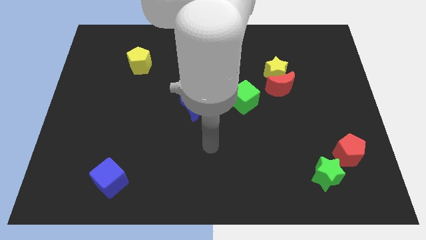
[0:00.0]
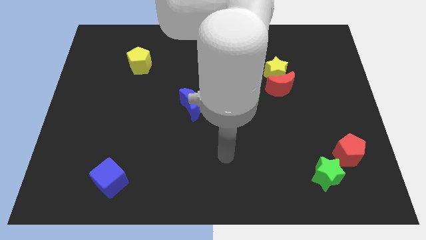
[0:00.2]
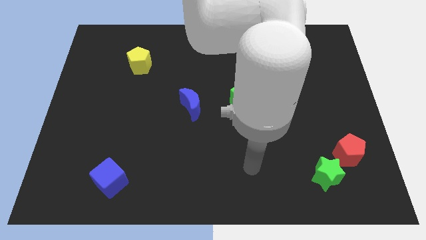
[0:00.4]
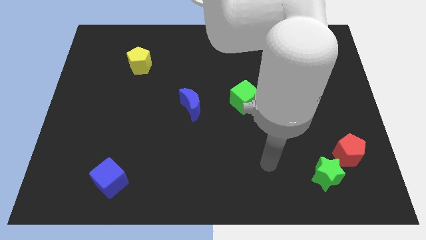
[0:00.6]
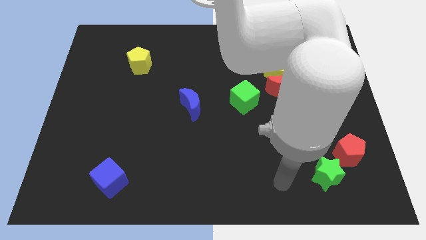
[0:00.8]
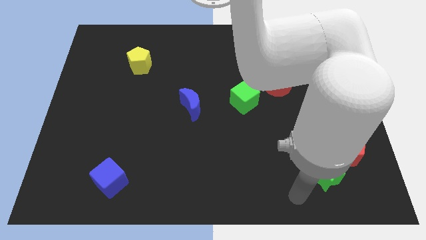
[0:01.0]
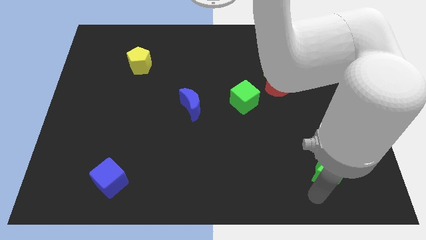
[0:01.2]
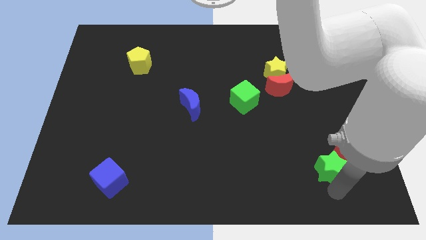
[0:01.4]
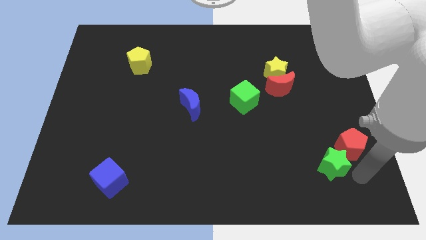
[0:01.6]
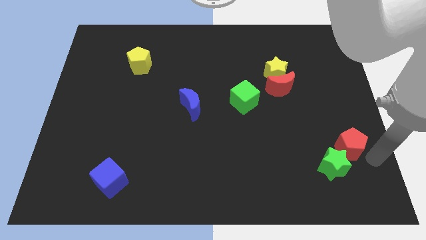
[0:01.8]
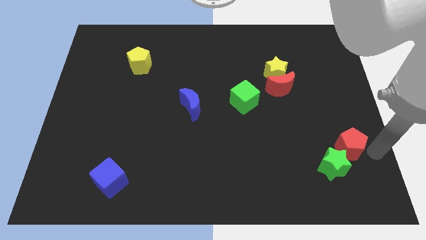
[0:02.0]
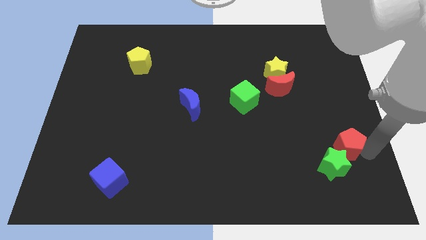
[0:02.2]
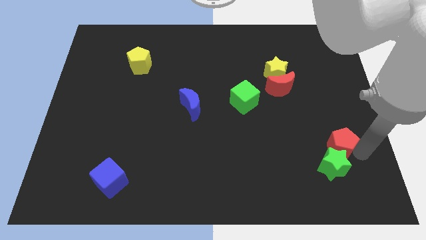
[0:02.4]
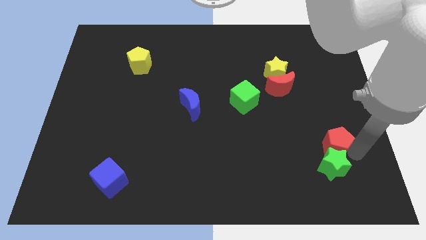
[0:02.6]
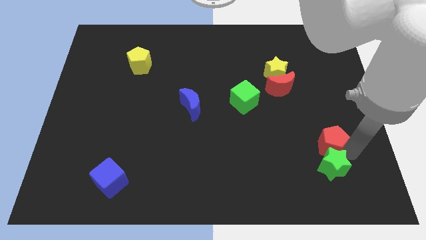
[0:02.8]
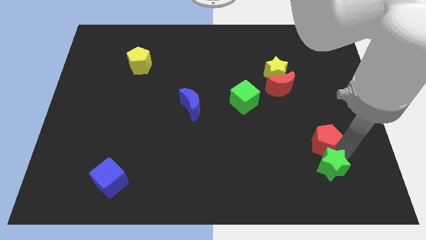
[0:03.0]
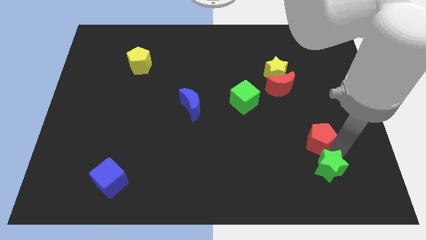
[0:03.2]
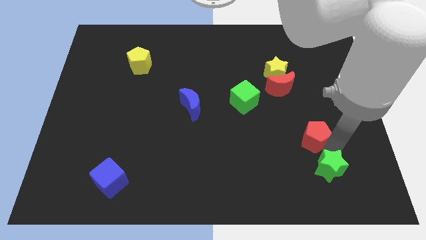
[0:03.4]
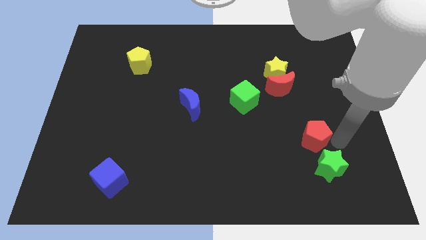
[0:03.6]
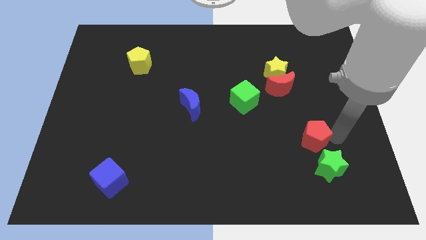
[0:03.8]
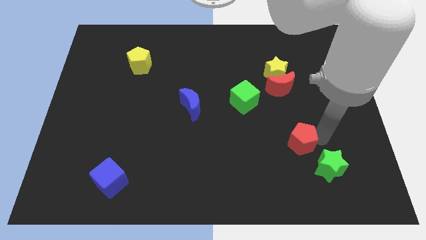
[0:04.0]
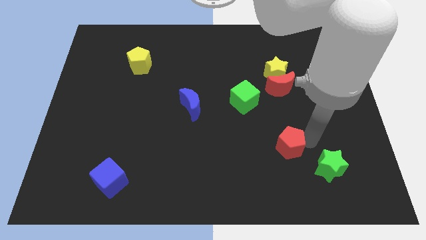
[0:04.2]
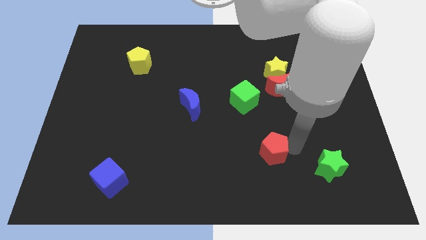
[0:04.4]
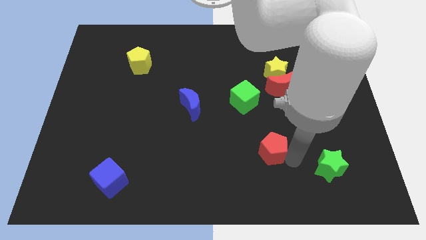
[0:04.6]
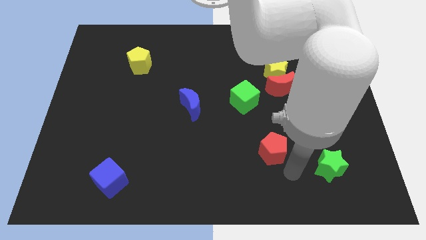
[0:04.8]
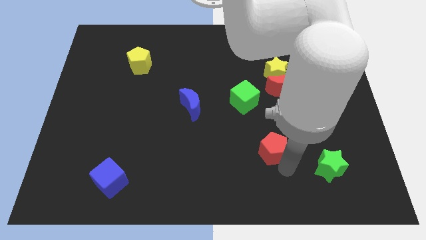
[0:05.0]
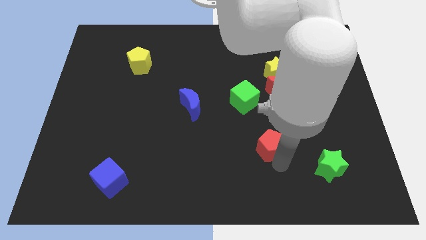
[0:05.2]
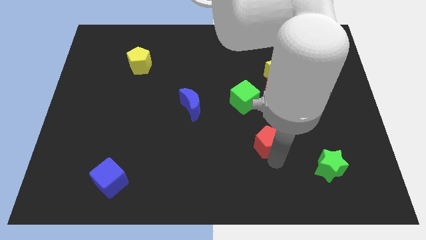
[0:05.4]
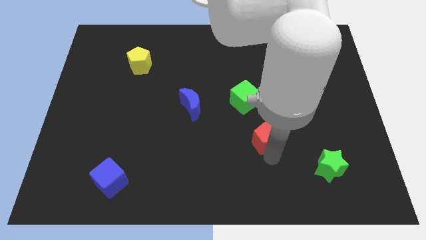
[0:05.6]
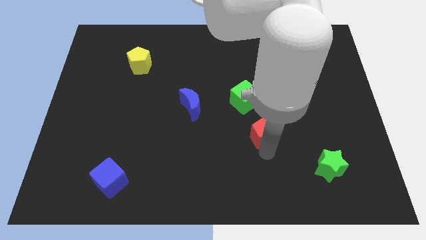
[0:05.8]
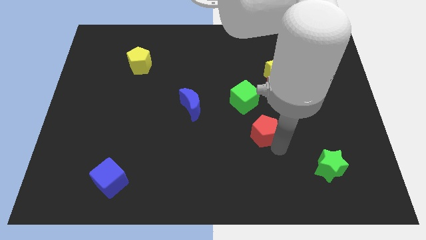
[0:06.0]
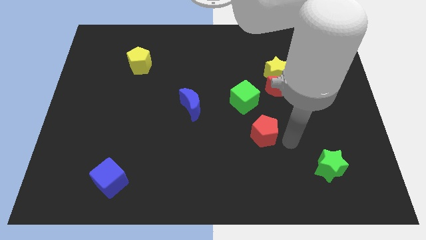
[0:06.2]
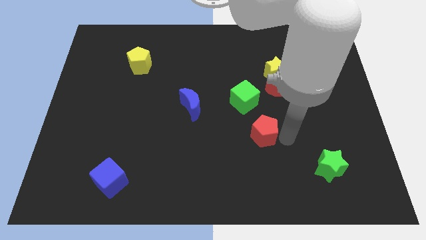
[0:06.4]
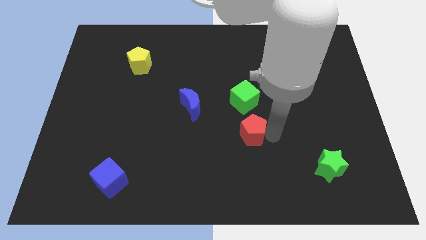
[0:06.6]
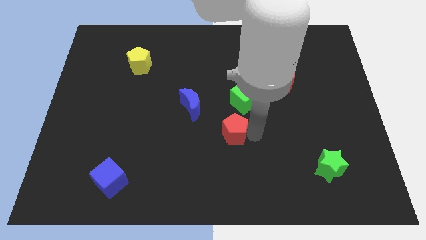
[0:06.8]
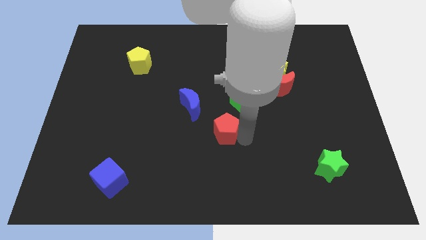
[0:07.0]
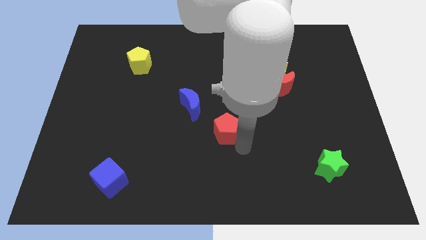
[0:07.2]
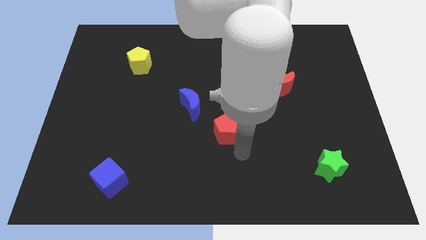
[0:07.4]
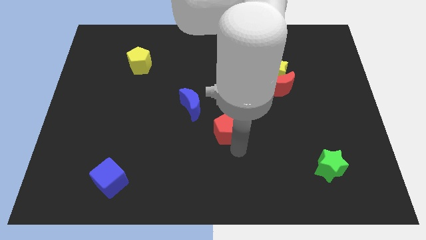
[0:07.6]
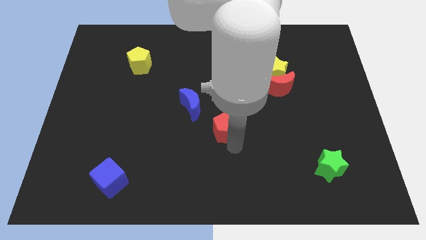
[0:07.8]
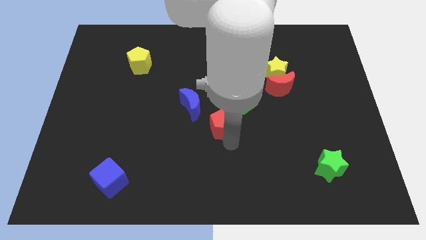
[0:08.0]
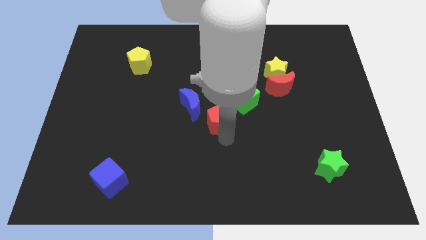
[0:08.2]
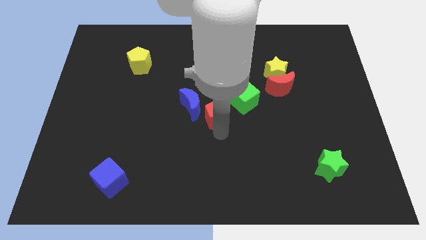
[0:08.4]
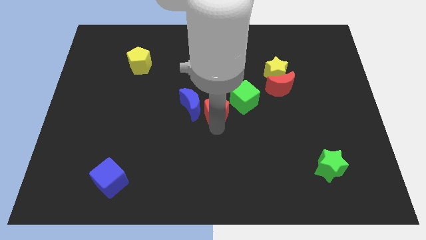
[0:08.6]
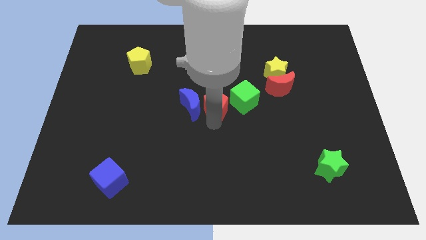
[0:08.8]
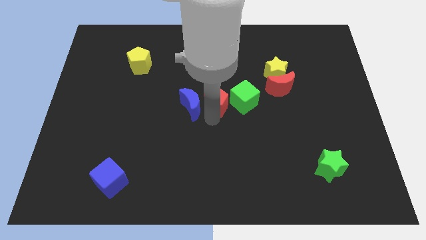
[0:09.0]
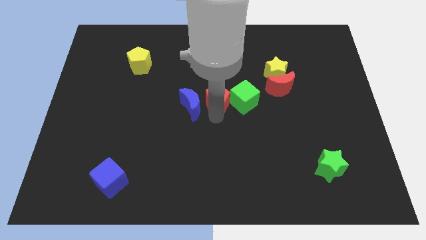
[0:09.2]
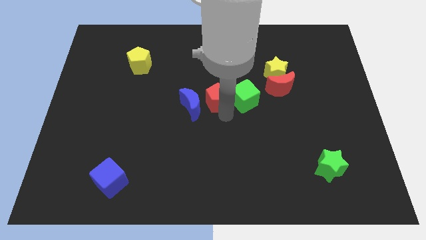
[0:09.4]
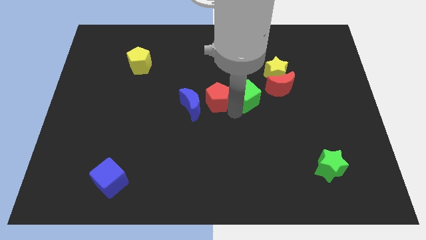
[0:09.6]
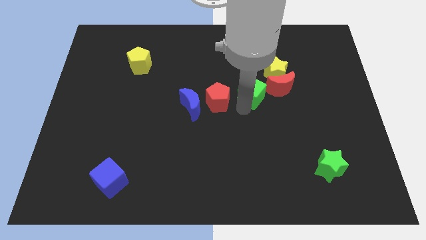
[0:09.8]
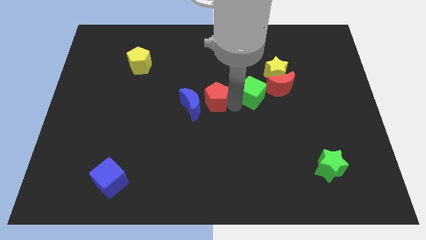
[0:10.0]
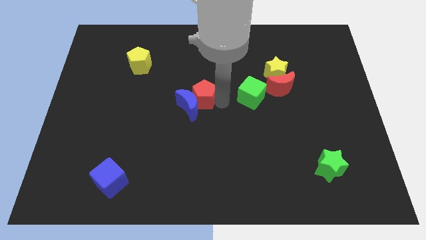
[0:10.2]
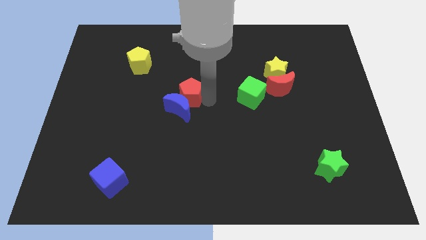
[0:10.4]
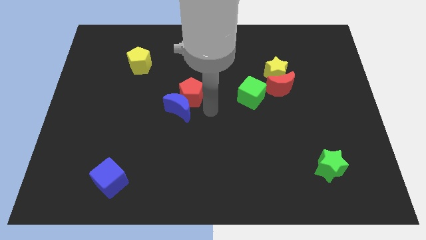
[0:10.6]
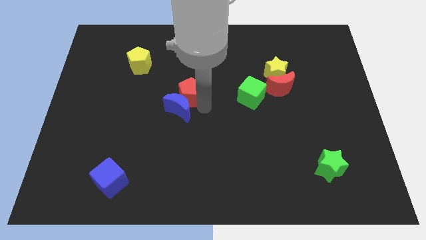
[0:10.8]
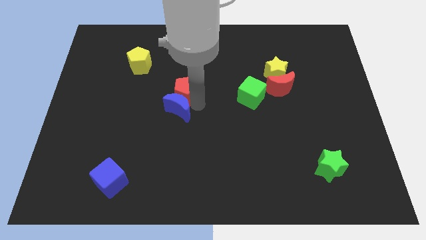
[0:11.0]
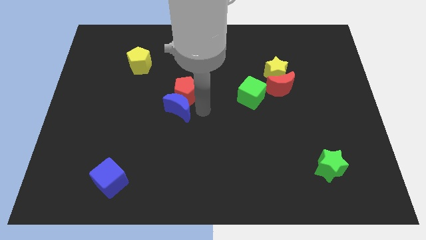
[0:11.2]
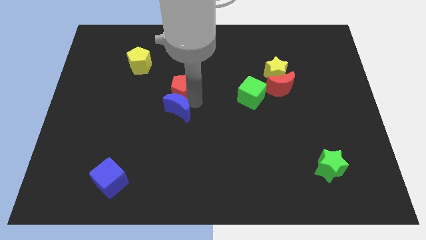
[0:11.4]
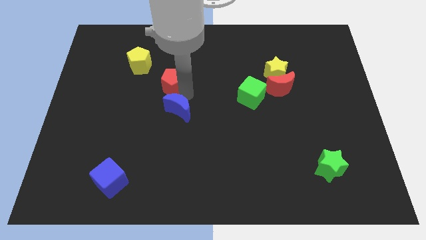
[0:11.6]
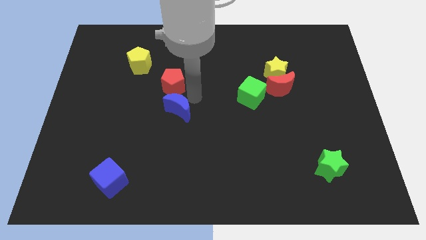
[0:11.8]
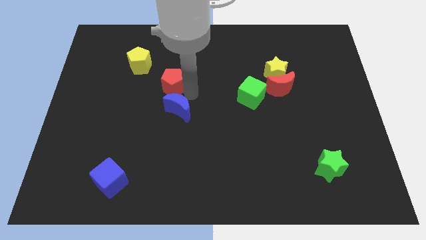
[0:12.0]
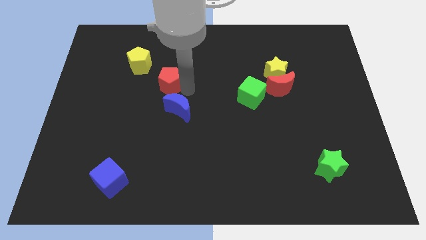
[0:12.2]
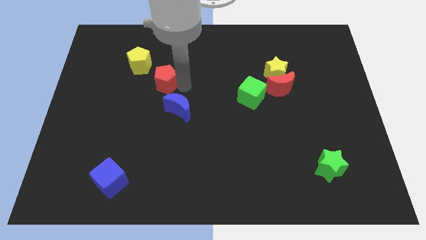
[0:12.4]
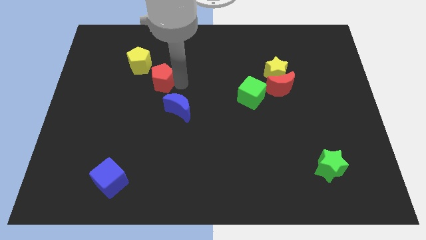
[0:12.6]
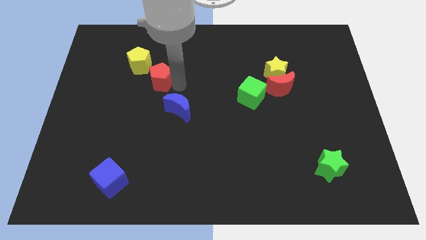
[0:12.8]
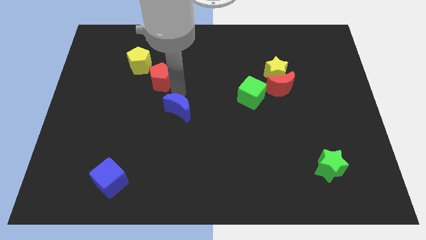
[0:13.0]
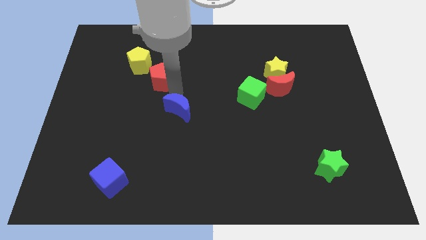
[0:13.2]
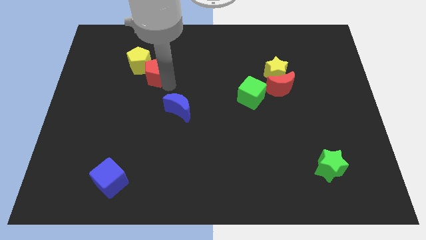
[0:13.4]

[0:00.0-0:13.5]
put the red pentagon to the yellow pentagon

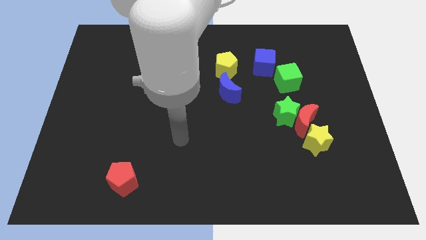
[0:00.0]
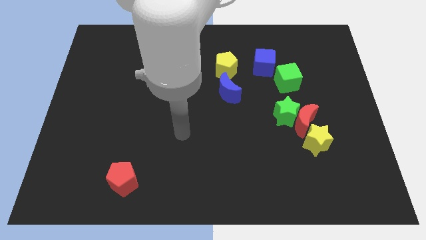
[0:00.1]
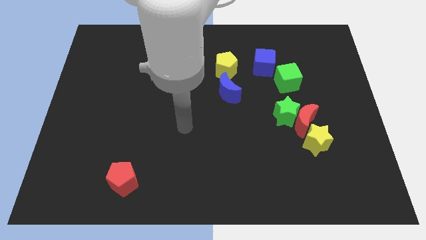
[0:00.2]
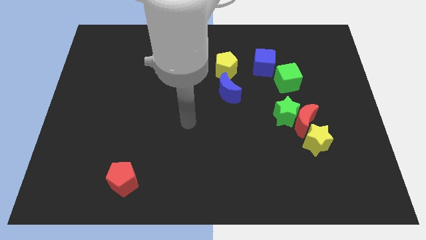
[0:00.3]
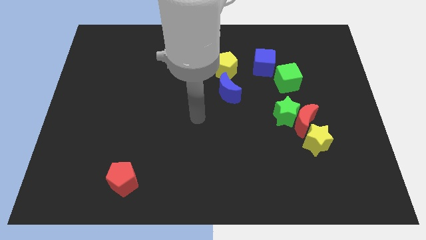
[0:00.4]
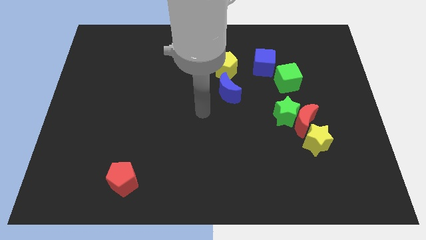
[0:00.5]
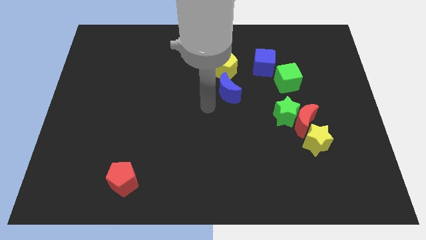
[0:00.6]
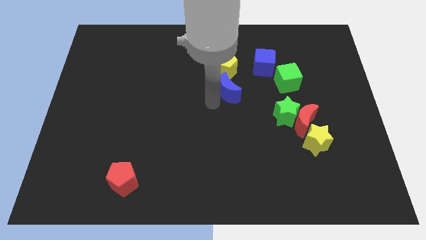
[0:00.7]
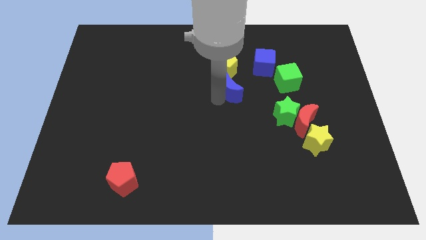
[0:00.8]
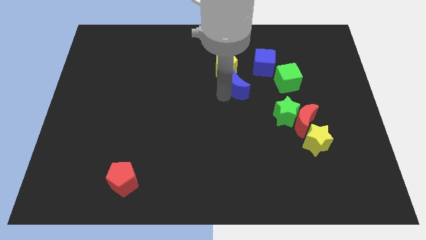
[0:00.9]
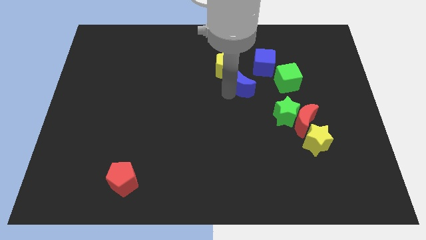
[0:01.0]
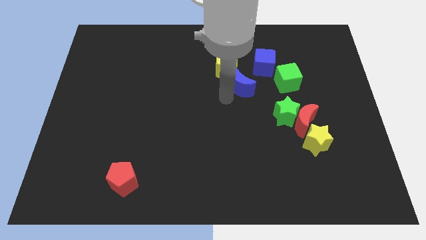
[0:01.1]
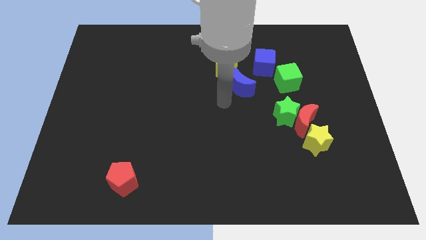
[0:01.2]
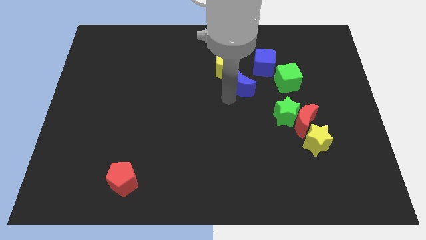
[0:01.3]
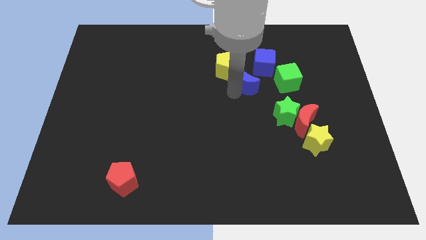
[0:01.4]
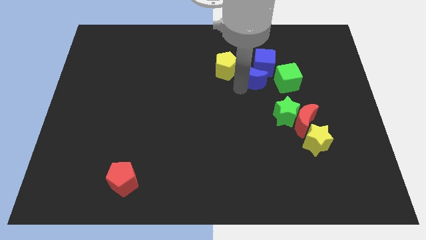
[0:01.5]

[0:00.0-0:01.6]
move the blue moon next to the blue cube
